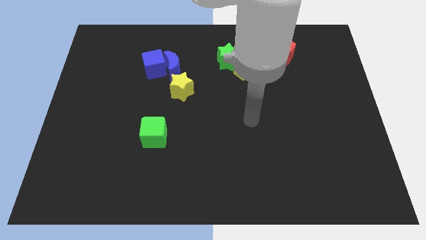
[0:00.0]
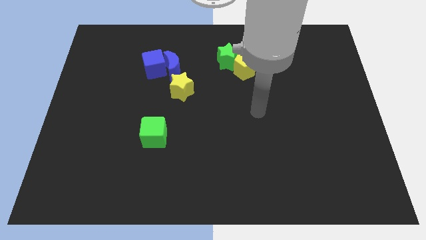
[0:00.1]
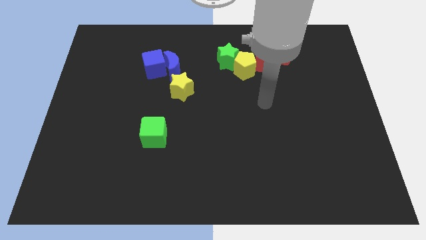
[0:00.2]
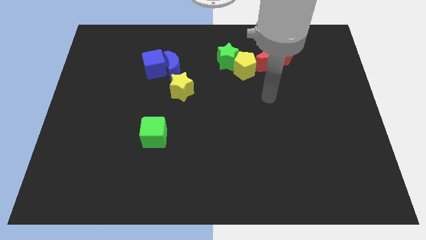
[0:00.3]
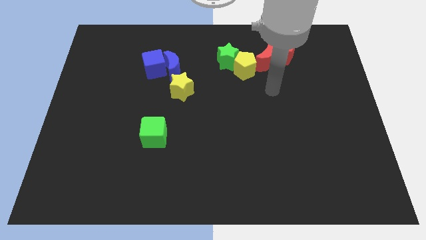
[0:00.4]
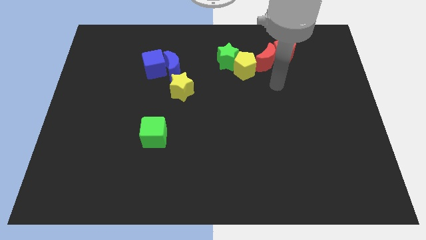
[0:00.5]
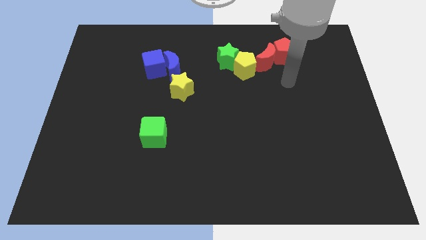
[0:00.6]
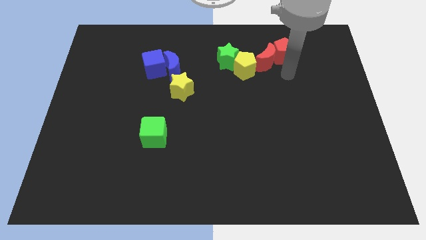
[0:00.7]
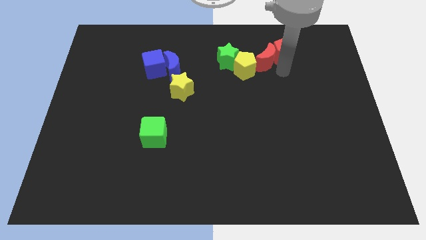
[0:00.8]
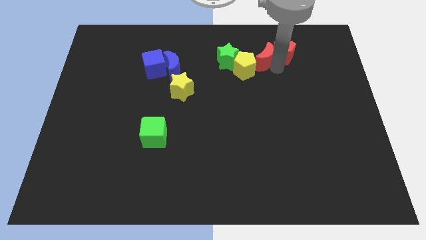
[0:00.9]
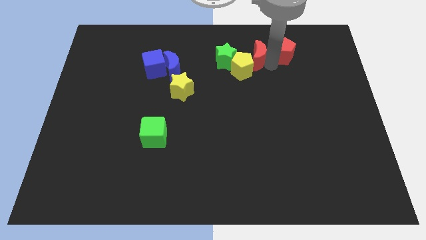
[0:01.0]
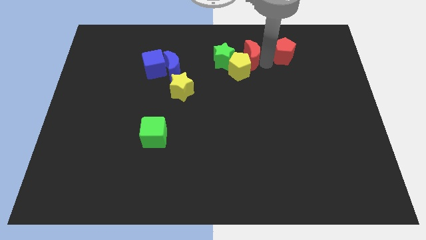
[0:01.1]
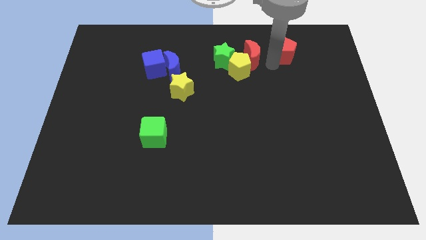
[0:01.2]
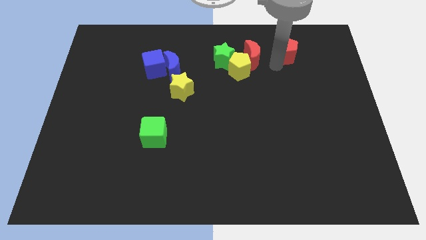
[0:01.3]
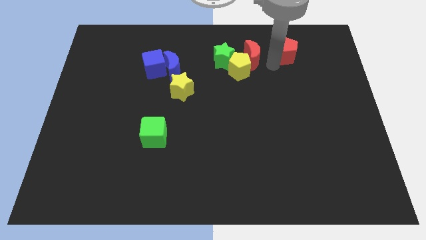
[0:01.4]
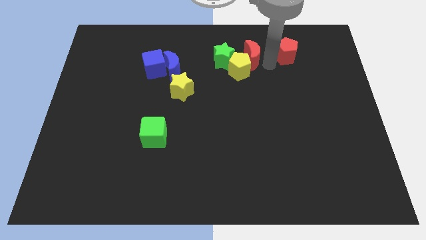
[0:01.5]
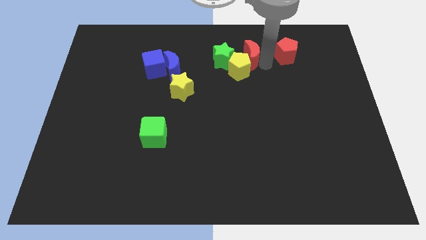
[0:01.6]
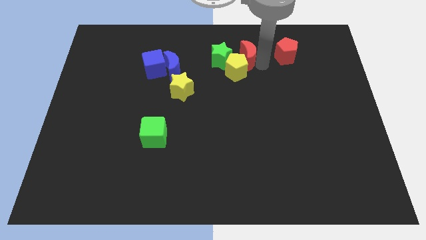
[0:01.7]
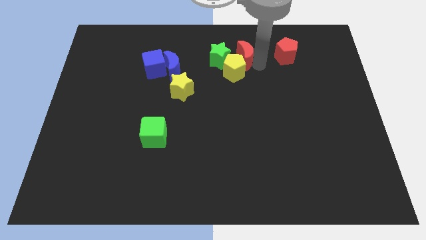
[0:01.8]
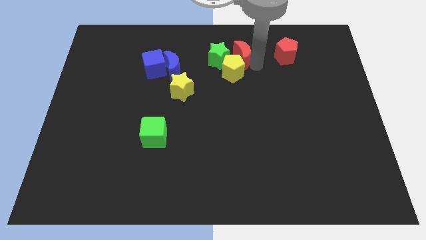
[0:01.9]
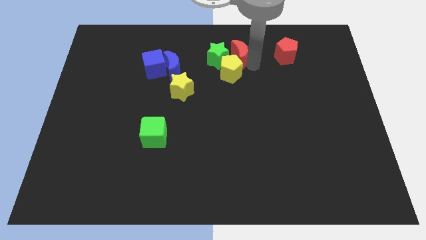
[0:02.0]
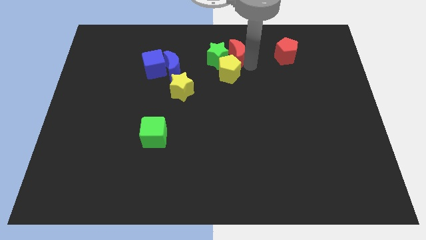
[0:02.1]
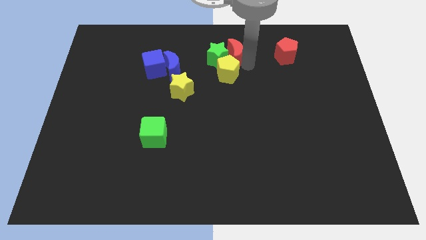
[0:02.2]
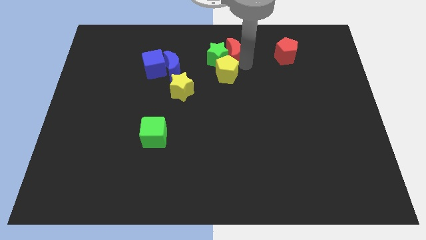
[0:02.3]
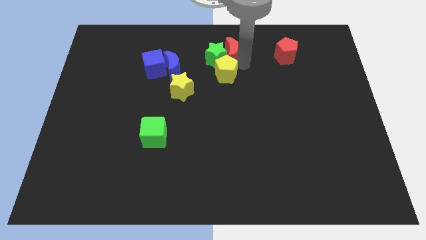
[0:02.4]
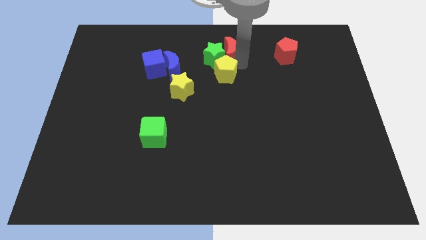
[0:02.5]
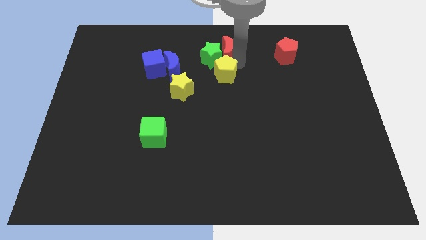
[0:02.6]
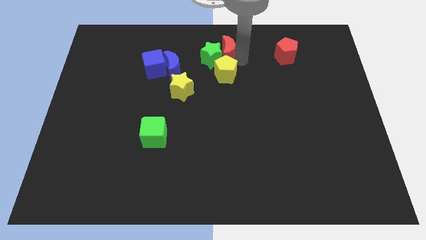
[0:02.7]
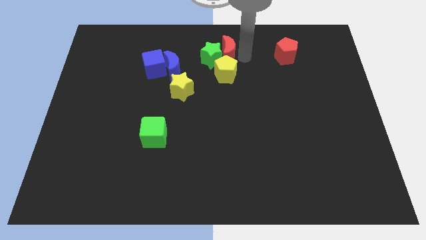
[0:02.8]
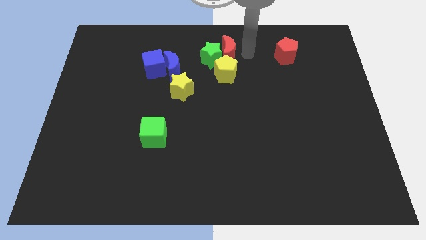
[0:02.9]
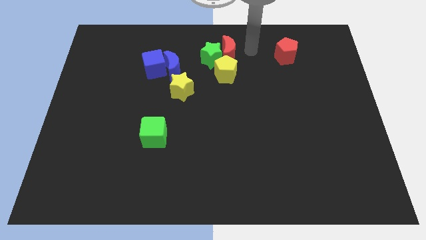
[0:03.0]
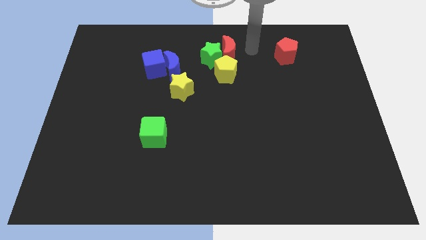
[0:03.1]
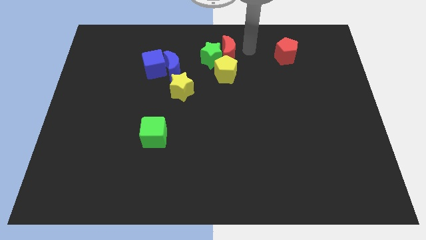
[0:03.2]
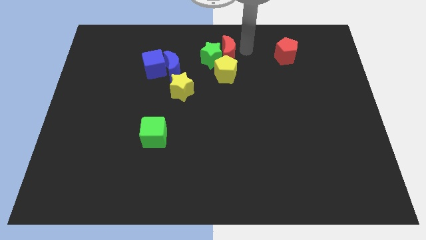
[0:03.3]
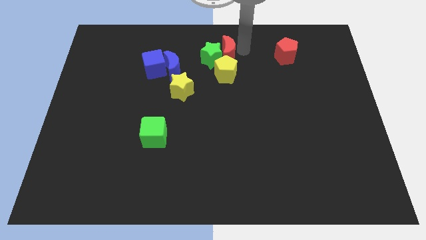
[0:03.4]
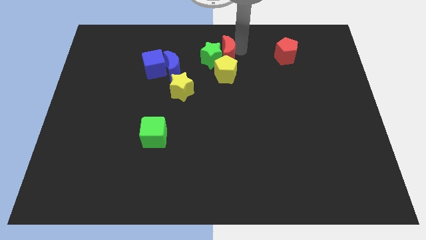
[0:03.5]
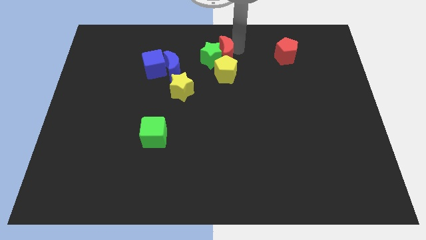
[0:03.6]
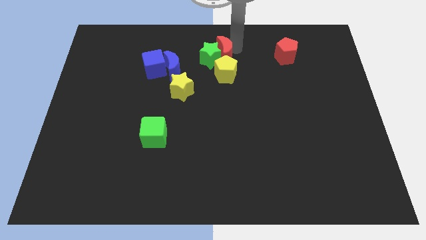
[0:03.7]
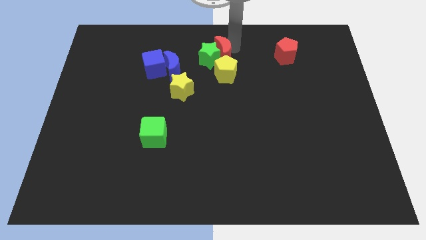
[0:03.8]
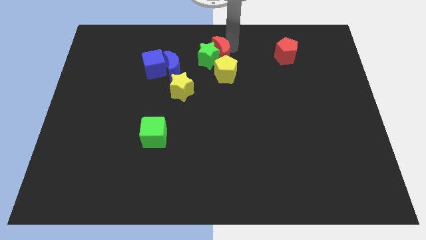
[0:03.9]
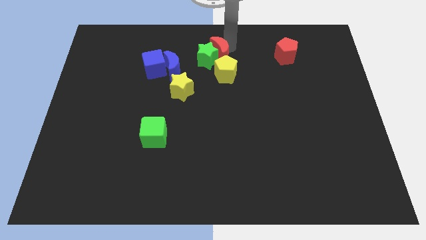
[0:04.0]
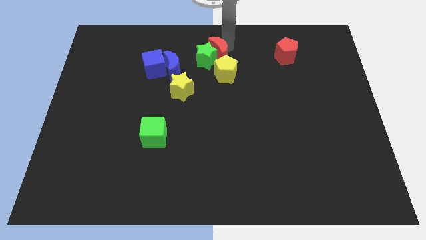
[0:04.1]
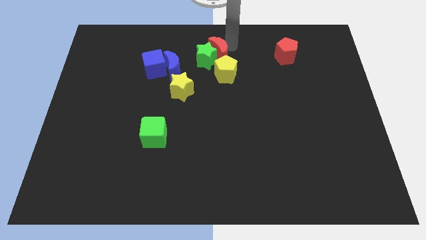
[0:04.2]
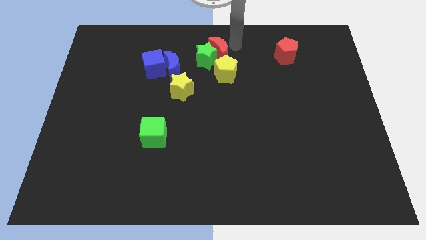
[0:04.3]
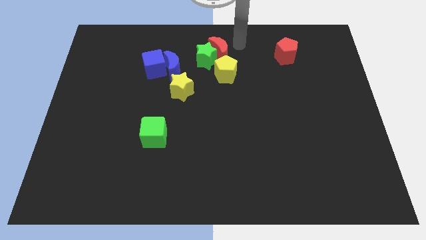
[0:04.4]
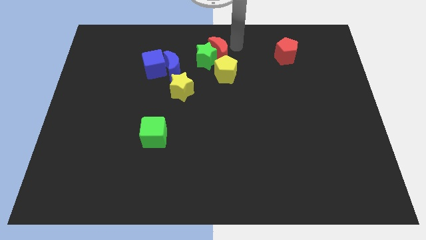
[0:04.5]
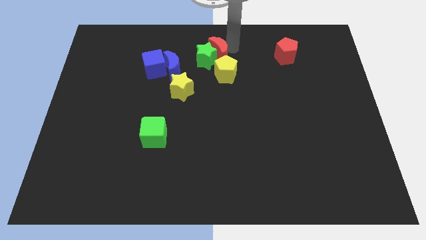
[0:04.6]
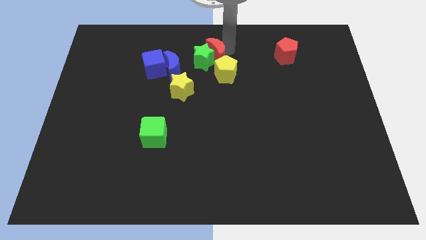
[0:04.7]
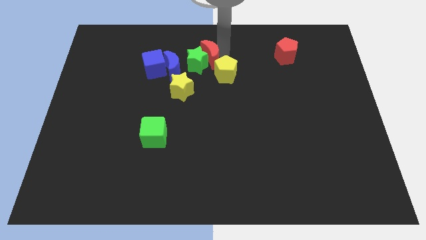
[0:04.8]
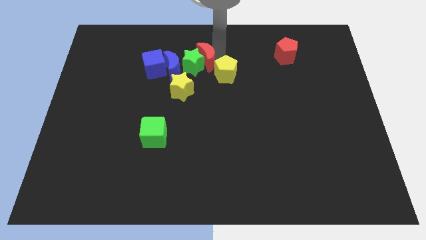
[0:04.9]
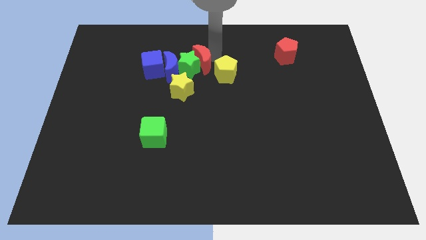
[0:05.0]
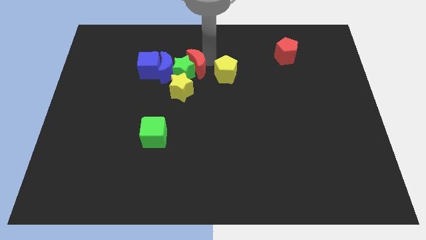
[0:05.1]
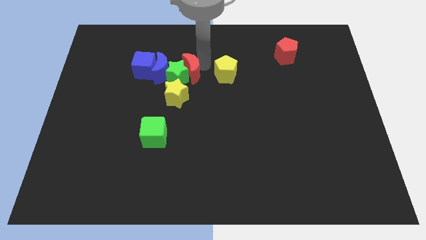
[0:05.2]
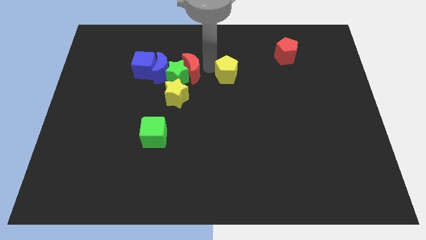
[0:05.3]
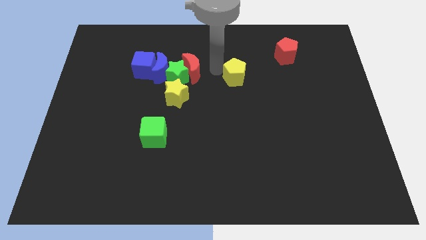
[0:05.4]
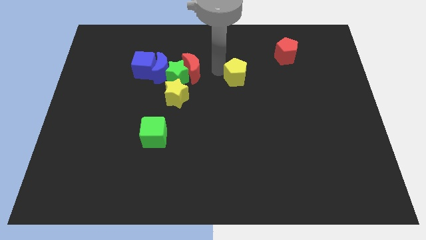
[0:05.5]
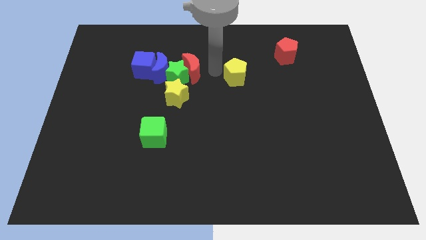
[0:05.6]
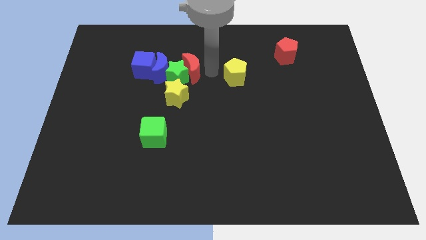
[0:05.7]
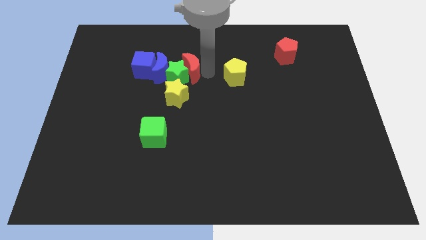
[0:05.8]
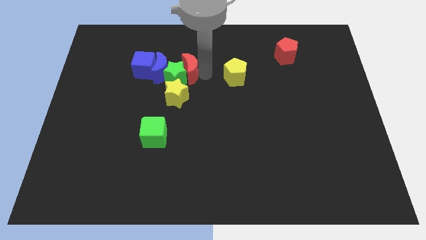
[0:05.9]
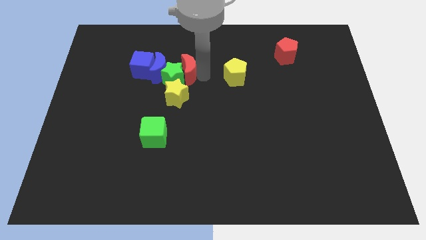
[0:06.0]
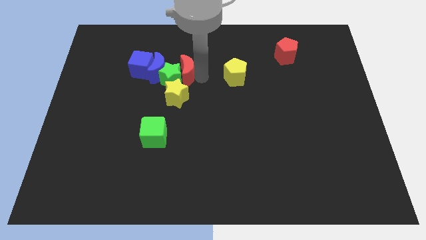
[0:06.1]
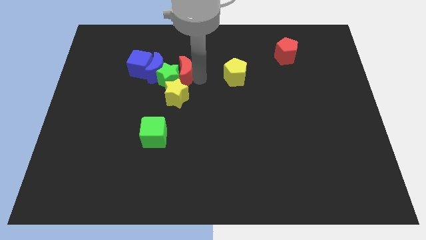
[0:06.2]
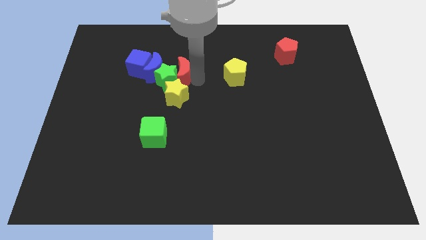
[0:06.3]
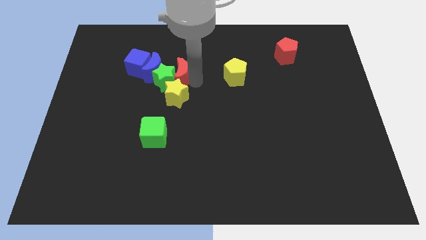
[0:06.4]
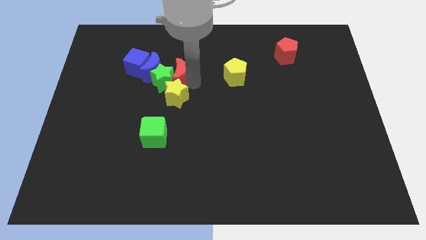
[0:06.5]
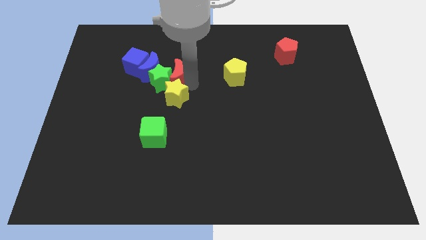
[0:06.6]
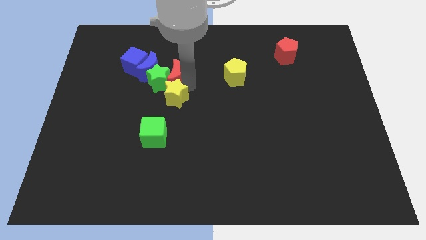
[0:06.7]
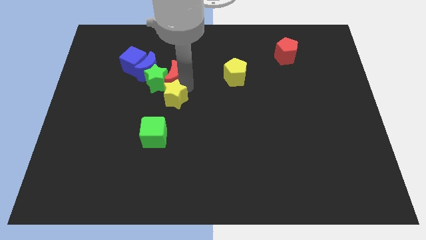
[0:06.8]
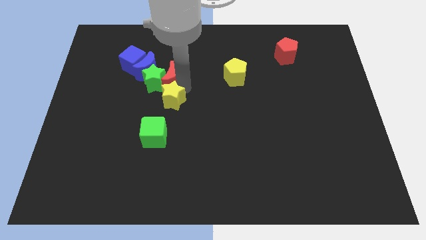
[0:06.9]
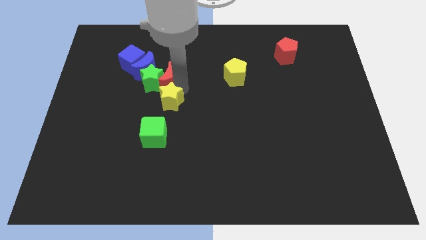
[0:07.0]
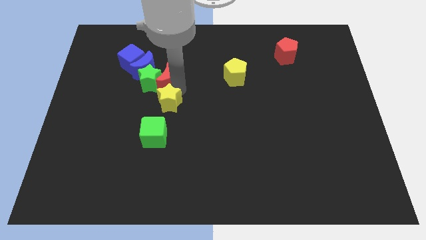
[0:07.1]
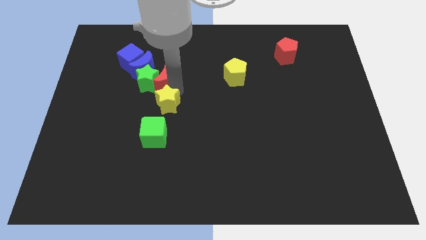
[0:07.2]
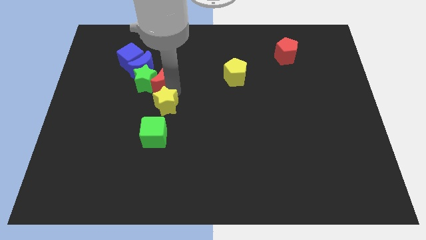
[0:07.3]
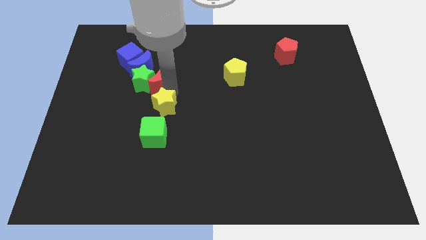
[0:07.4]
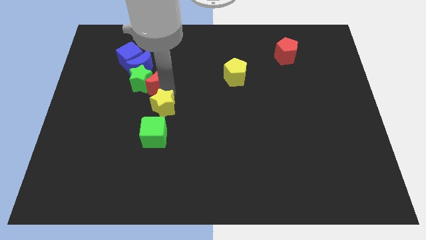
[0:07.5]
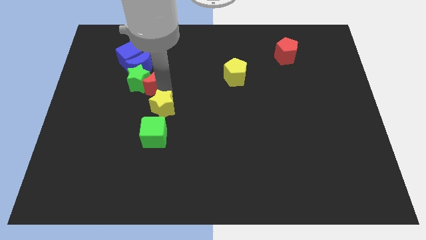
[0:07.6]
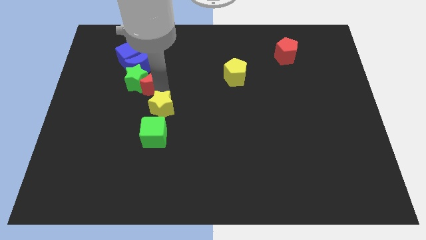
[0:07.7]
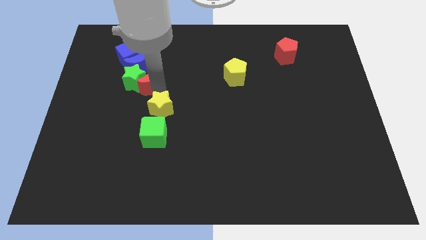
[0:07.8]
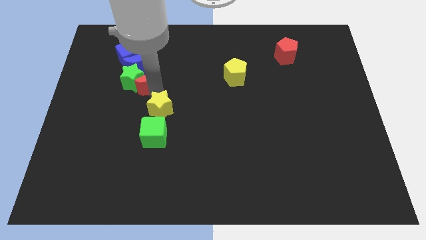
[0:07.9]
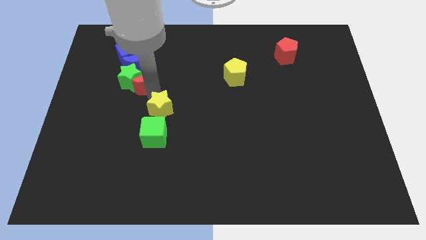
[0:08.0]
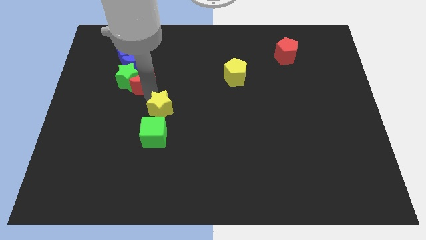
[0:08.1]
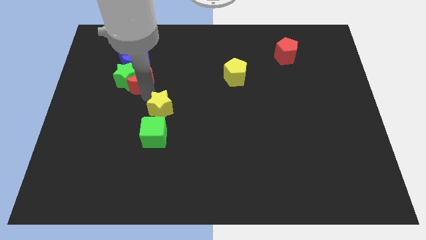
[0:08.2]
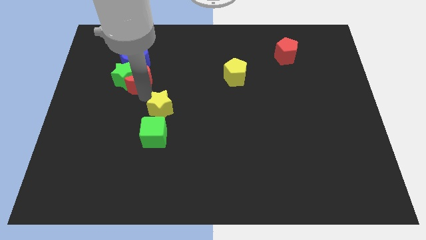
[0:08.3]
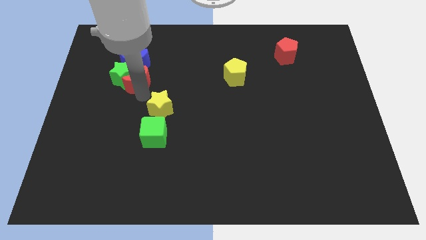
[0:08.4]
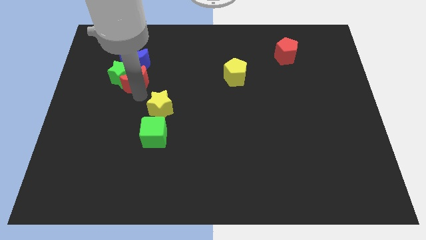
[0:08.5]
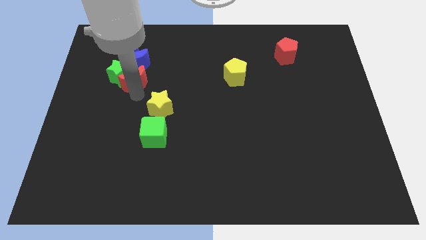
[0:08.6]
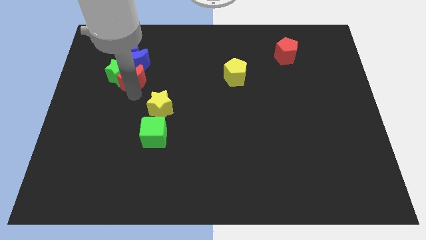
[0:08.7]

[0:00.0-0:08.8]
push the red moon next to the blue moon
